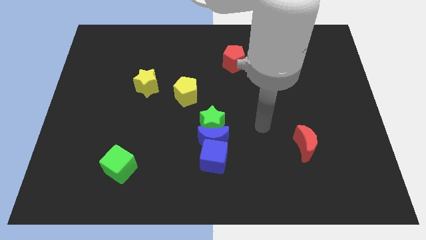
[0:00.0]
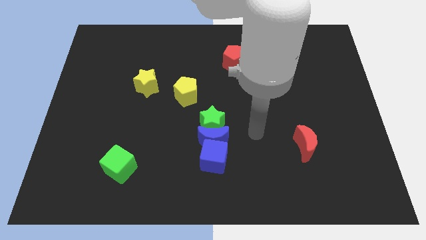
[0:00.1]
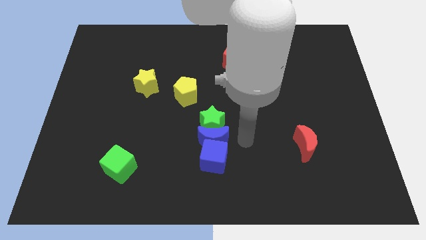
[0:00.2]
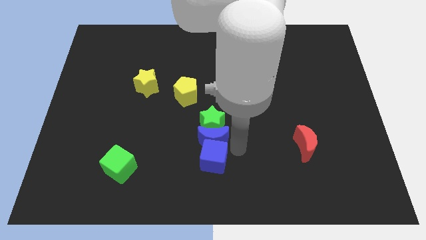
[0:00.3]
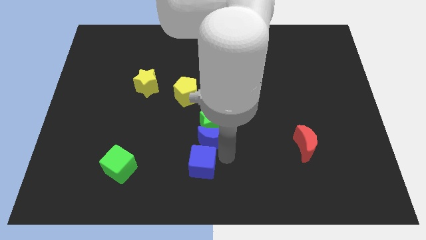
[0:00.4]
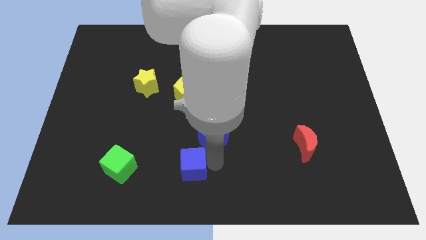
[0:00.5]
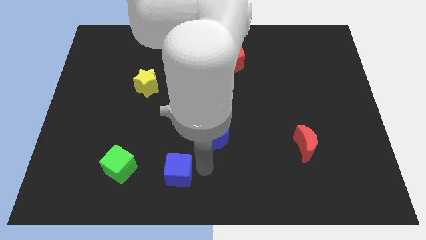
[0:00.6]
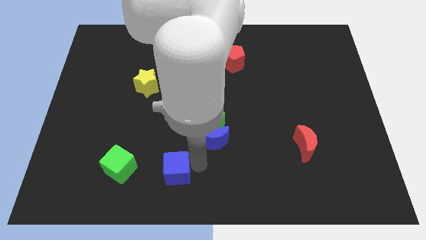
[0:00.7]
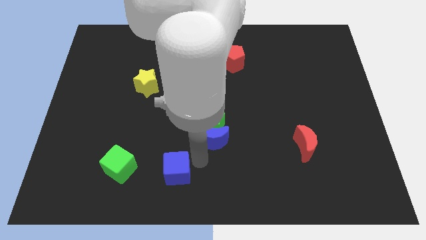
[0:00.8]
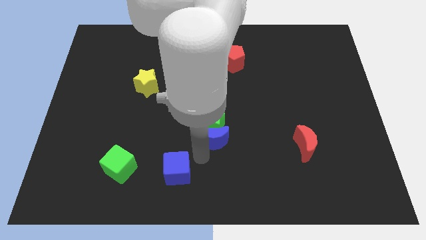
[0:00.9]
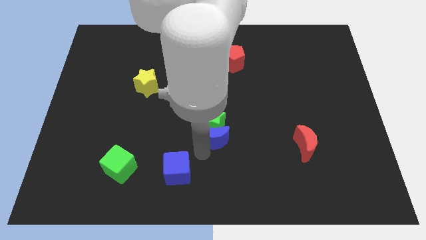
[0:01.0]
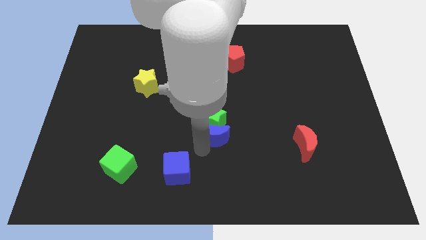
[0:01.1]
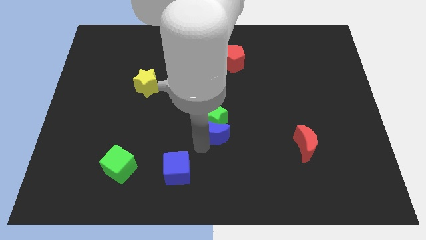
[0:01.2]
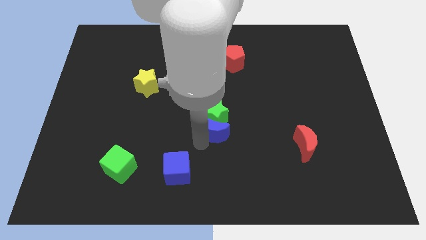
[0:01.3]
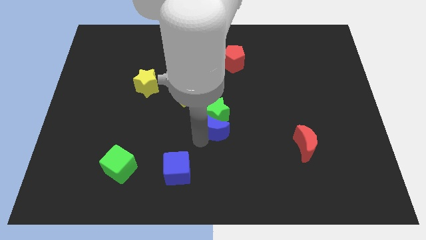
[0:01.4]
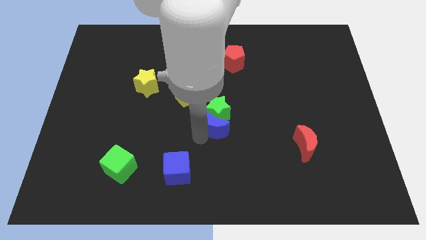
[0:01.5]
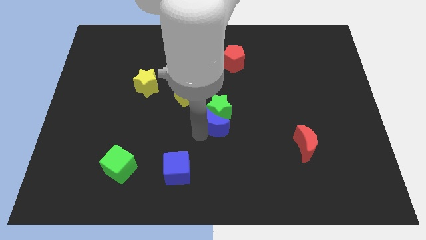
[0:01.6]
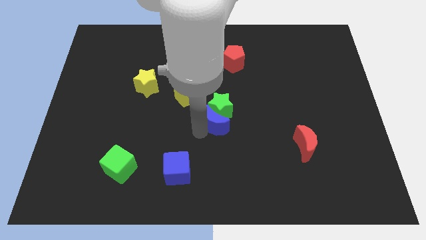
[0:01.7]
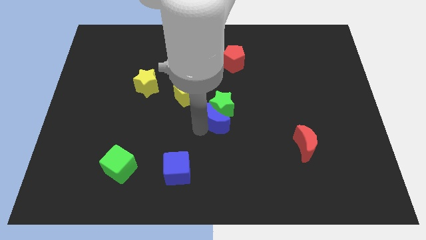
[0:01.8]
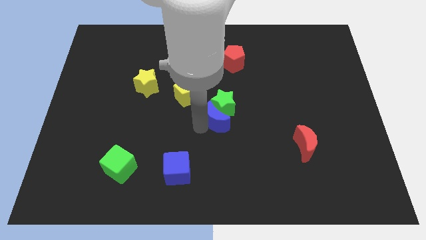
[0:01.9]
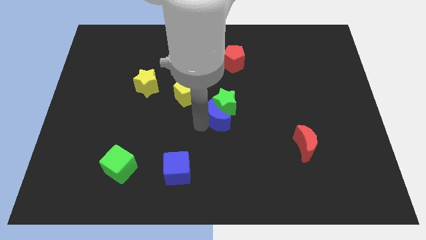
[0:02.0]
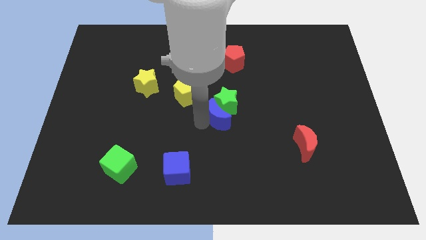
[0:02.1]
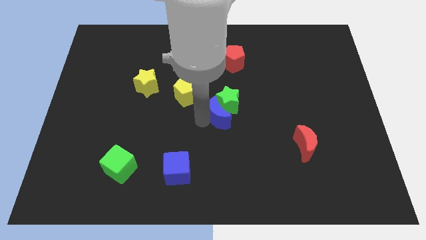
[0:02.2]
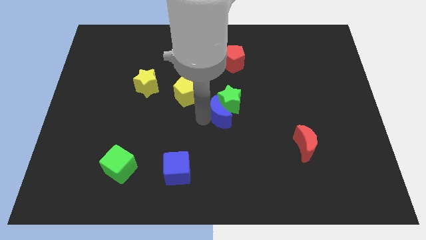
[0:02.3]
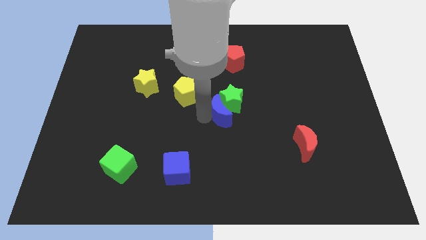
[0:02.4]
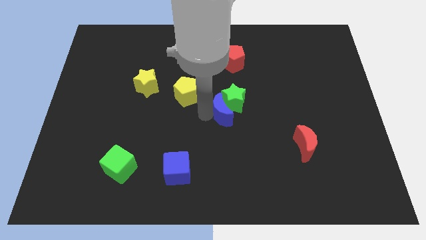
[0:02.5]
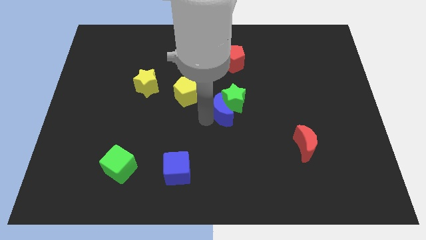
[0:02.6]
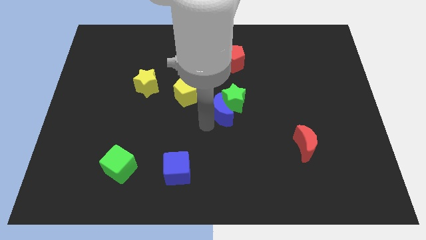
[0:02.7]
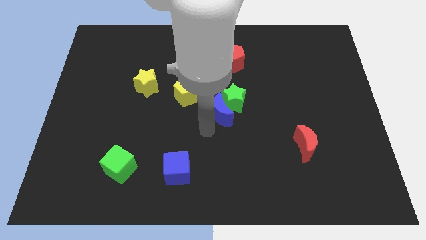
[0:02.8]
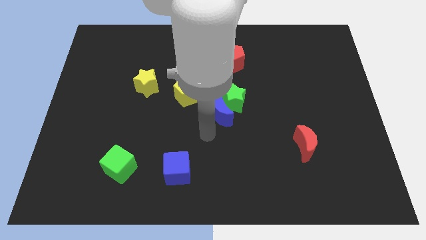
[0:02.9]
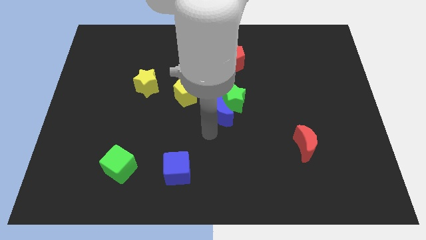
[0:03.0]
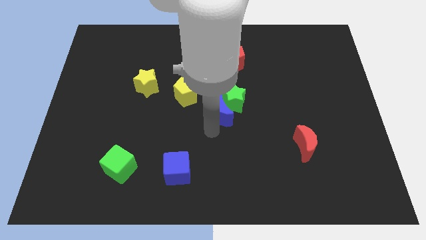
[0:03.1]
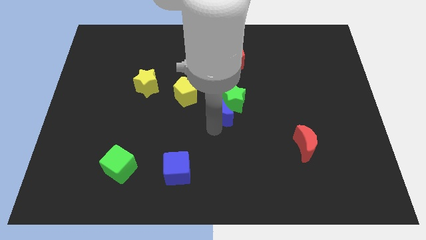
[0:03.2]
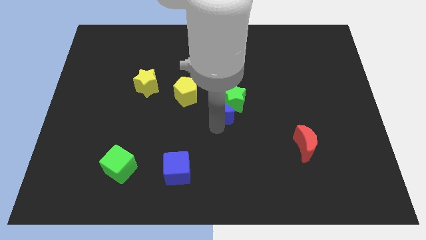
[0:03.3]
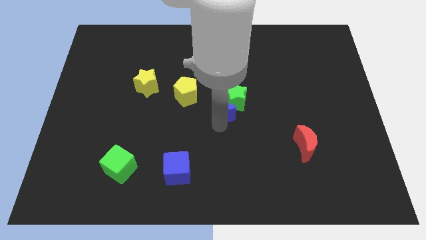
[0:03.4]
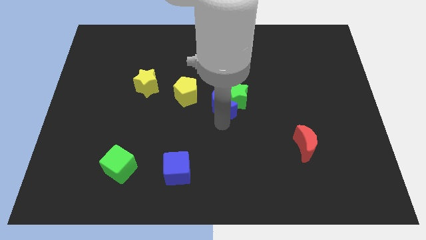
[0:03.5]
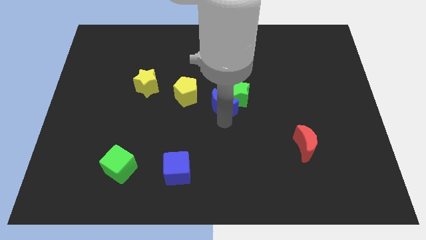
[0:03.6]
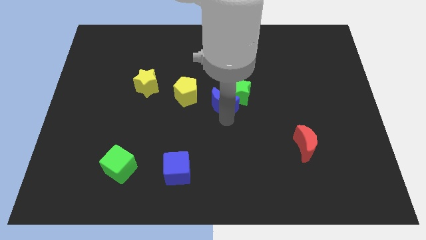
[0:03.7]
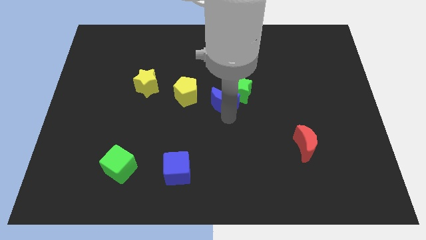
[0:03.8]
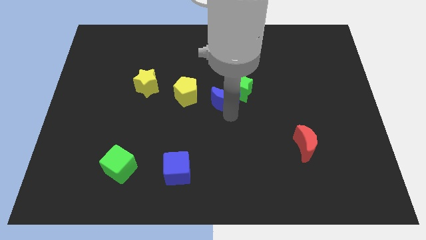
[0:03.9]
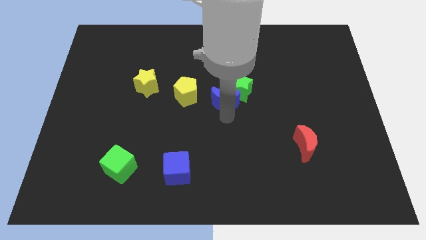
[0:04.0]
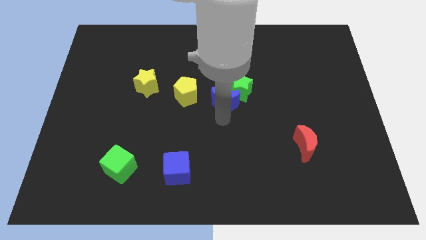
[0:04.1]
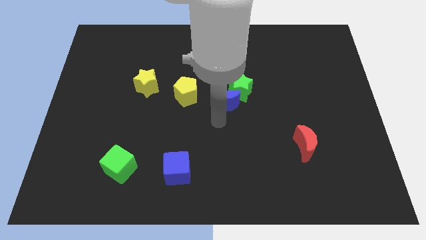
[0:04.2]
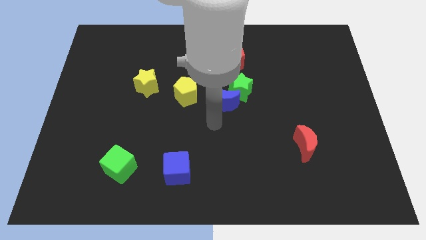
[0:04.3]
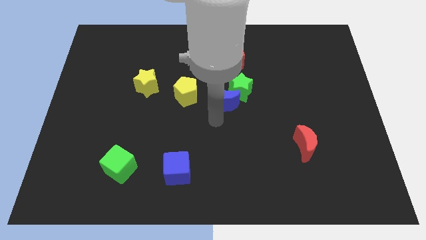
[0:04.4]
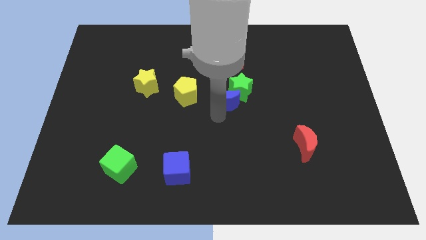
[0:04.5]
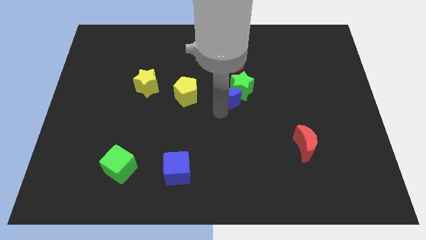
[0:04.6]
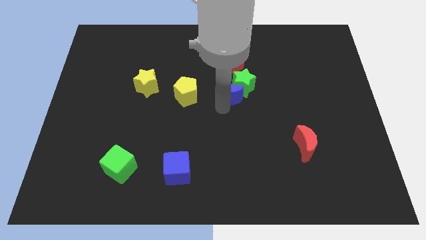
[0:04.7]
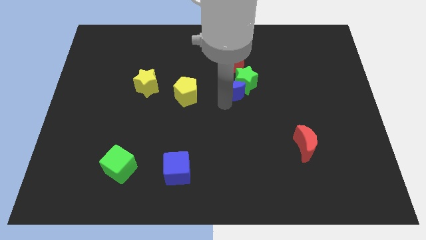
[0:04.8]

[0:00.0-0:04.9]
move the blue moon away from the green star and blue cube

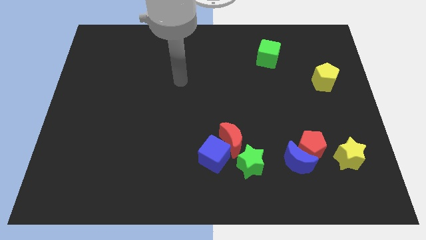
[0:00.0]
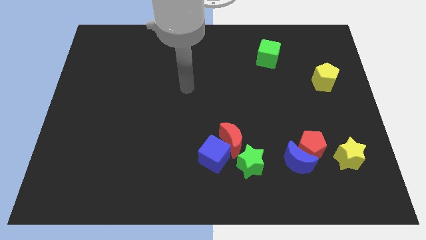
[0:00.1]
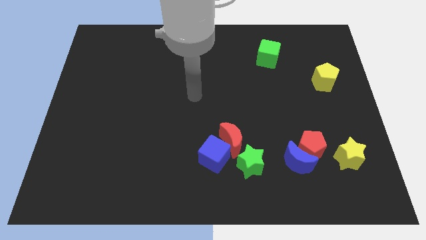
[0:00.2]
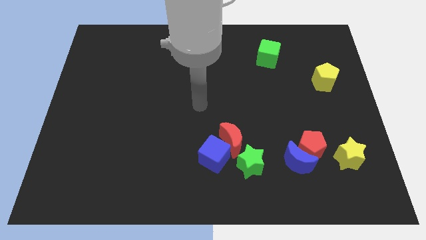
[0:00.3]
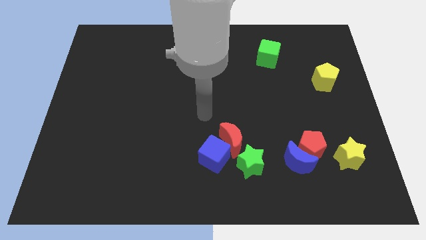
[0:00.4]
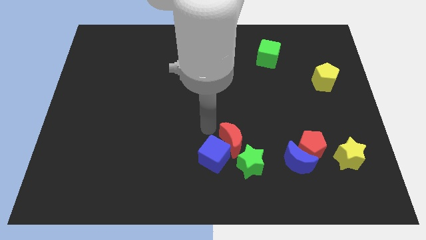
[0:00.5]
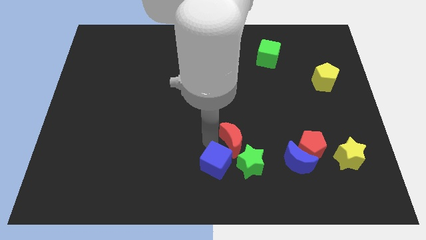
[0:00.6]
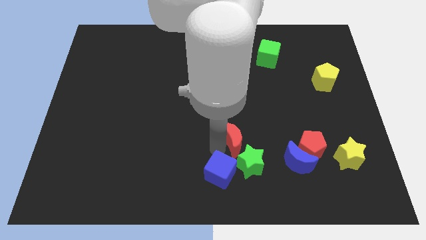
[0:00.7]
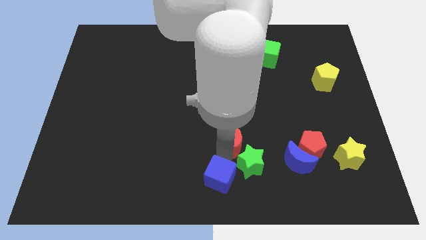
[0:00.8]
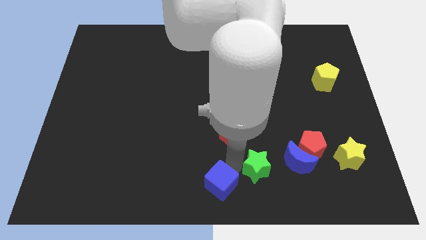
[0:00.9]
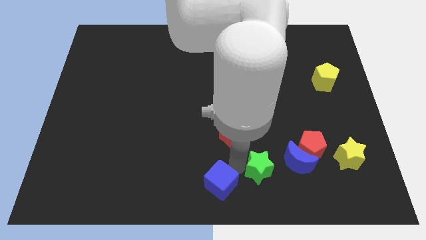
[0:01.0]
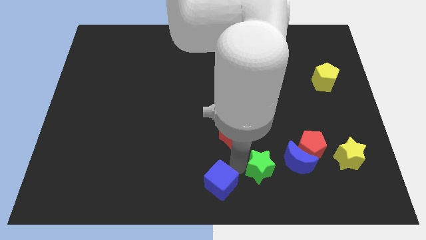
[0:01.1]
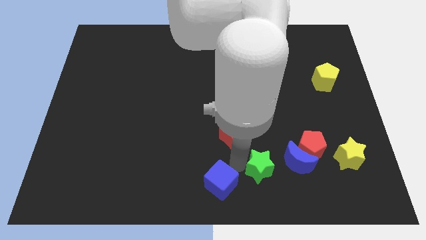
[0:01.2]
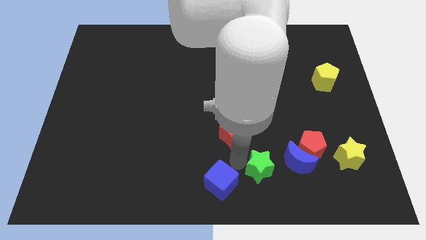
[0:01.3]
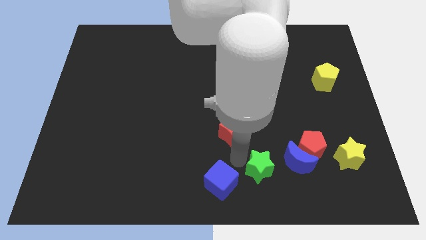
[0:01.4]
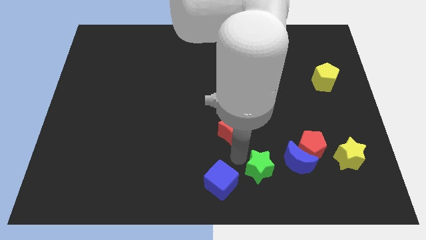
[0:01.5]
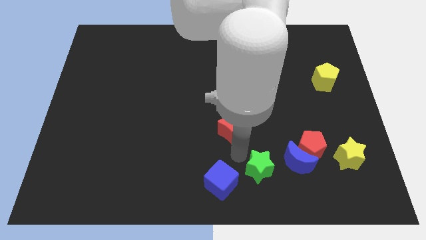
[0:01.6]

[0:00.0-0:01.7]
move the red moon away from the blue cube and green star

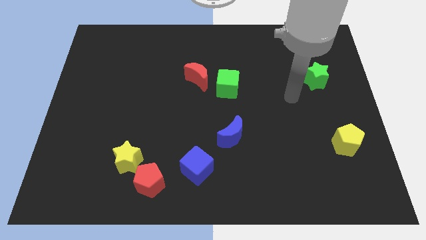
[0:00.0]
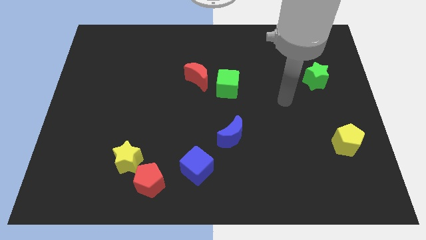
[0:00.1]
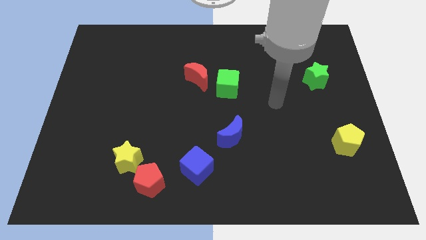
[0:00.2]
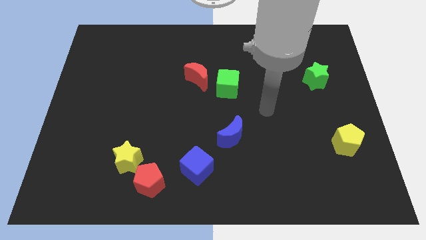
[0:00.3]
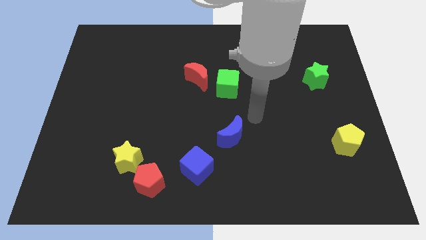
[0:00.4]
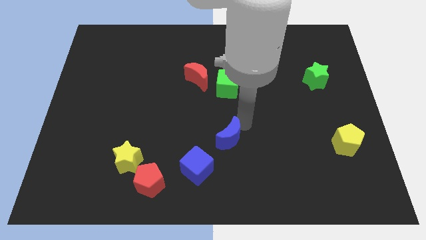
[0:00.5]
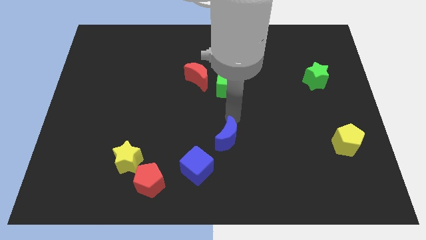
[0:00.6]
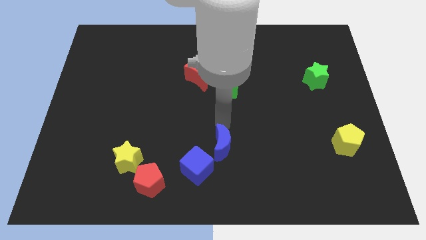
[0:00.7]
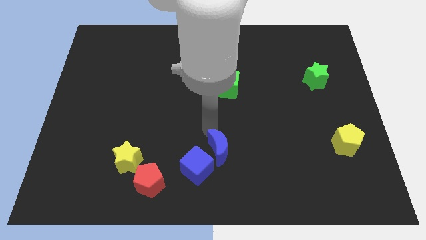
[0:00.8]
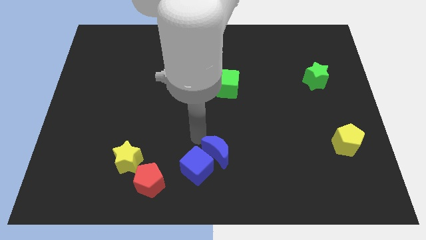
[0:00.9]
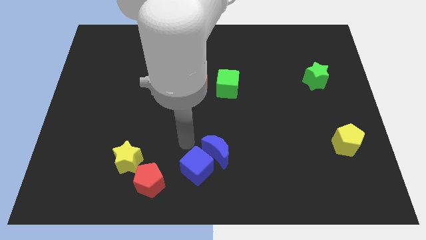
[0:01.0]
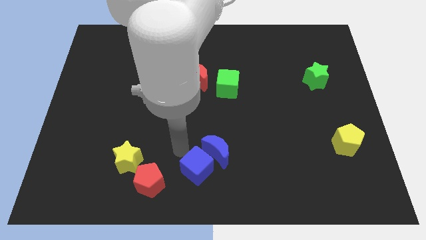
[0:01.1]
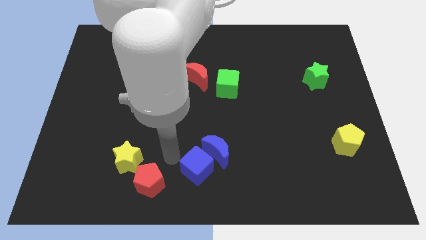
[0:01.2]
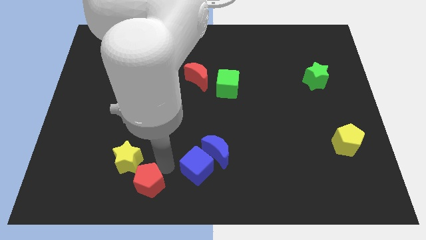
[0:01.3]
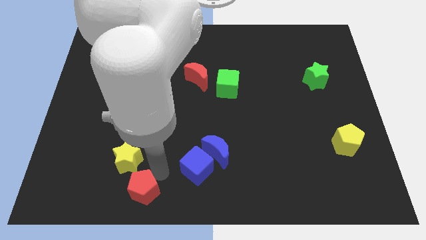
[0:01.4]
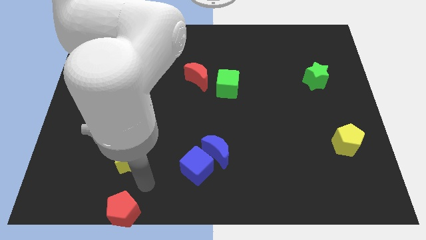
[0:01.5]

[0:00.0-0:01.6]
pull the yellow star apart from the red pentagon

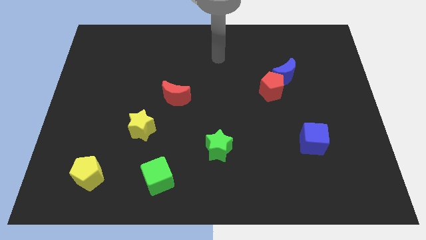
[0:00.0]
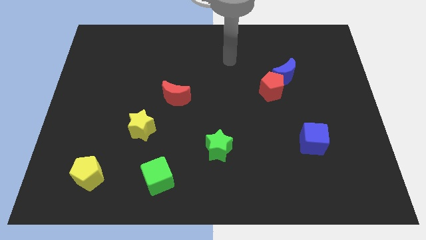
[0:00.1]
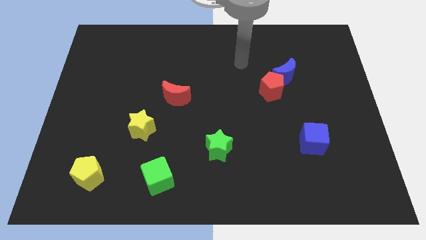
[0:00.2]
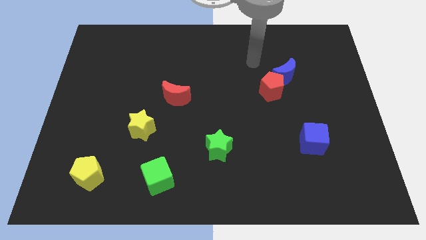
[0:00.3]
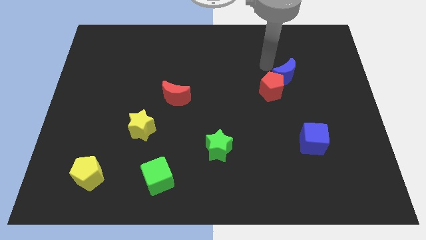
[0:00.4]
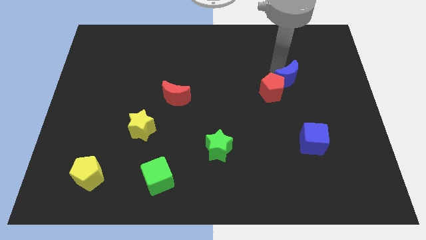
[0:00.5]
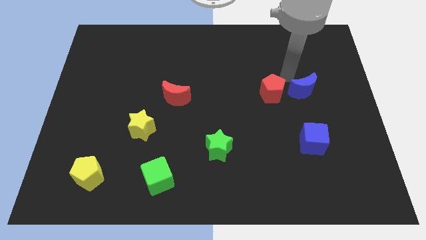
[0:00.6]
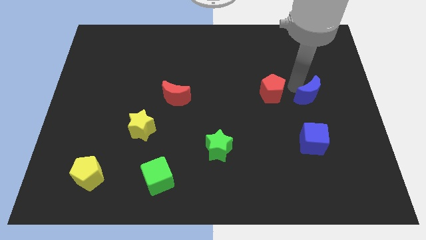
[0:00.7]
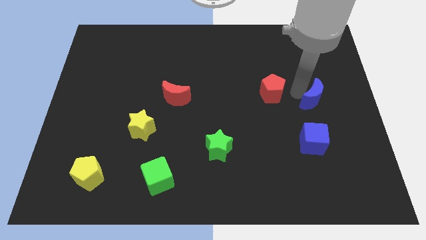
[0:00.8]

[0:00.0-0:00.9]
separate the red pentagon from the blue moon

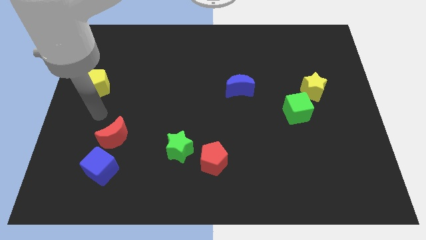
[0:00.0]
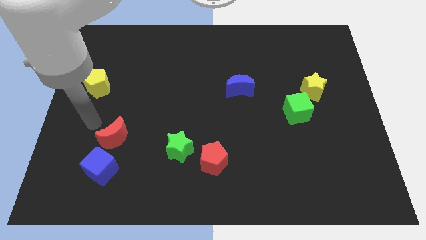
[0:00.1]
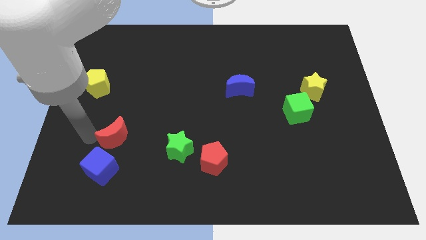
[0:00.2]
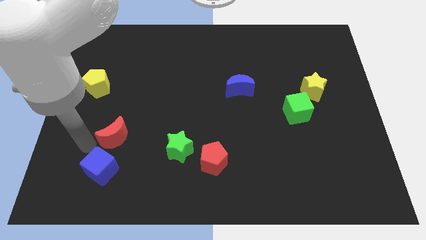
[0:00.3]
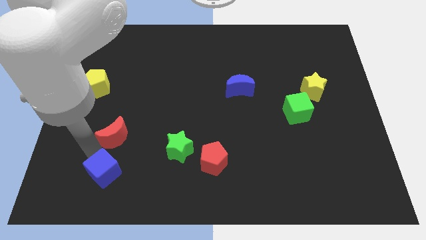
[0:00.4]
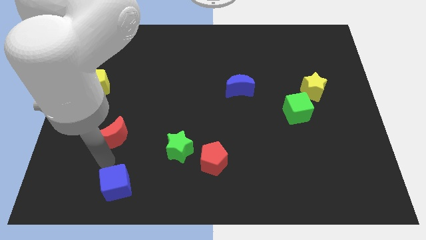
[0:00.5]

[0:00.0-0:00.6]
move the red moon away from the blue cube
